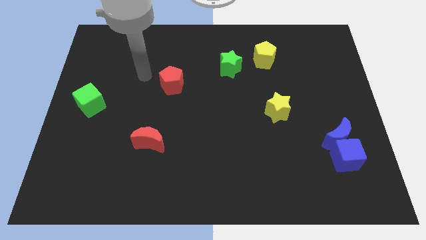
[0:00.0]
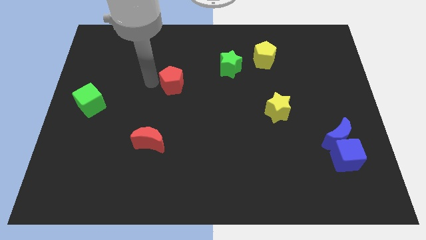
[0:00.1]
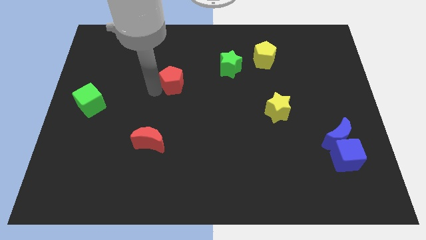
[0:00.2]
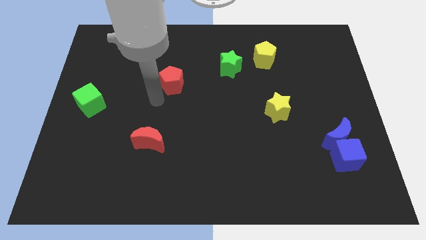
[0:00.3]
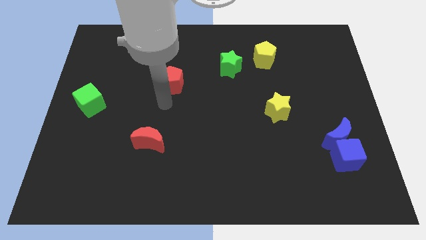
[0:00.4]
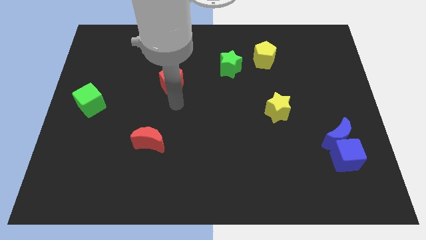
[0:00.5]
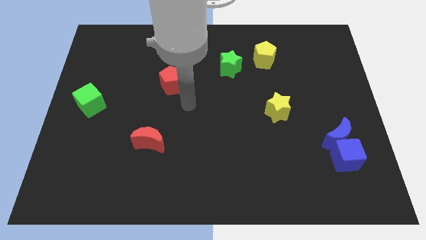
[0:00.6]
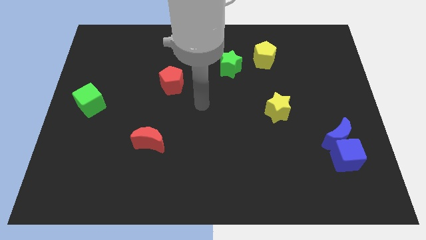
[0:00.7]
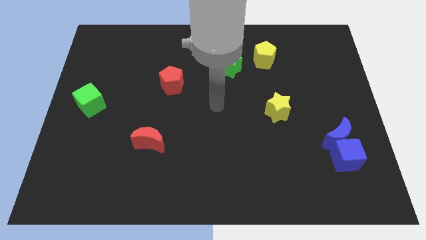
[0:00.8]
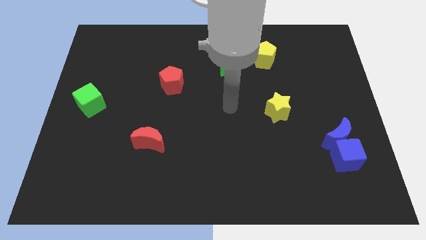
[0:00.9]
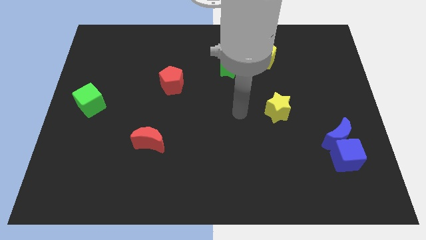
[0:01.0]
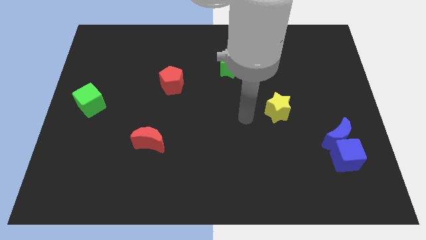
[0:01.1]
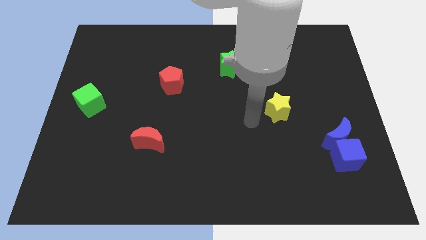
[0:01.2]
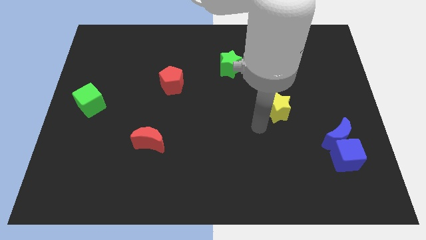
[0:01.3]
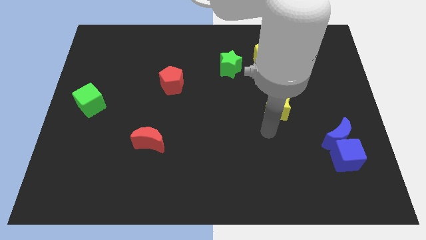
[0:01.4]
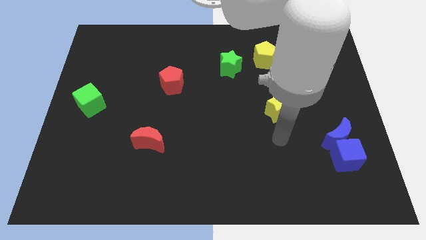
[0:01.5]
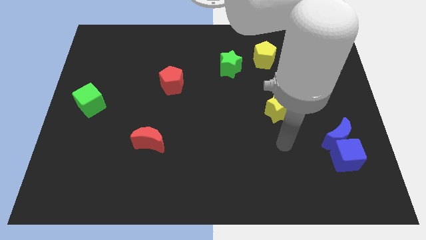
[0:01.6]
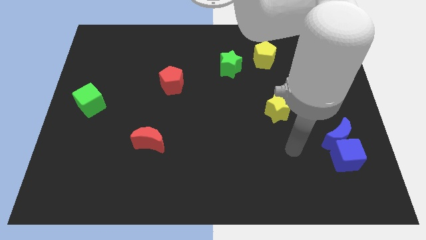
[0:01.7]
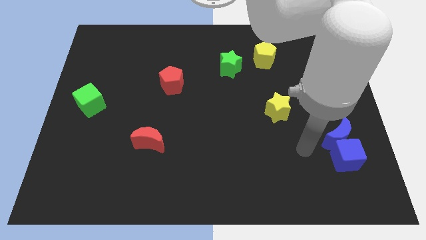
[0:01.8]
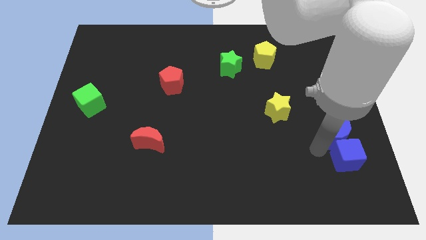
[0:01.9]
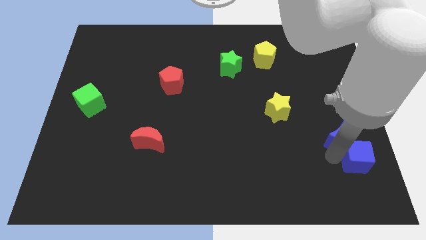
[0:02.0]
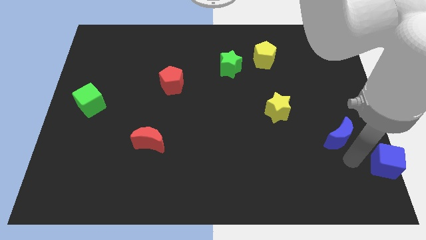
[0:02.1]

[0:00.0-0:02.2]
separate the blue moon from the blue cube

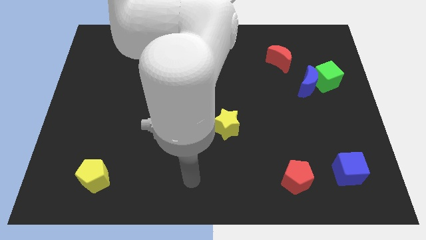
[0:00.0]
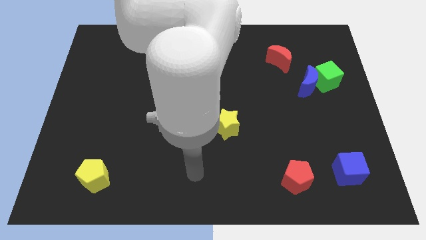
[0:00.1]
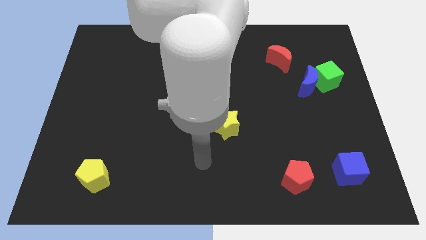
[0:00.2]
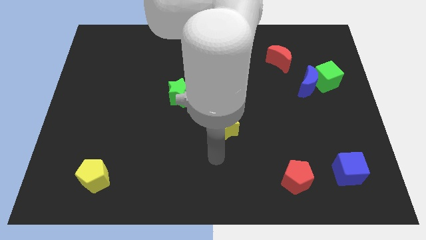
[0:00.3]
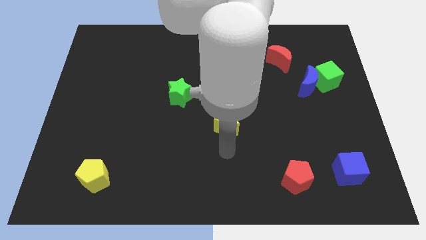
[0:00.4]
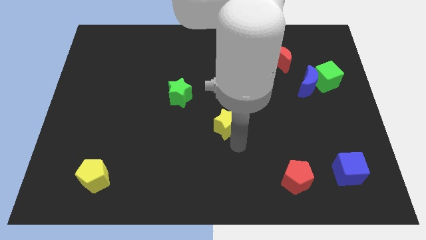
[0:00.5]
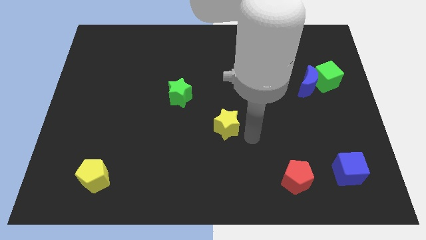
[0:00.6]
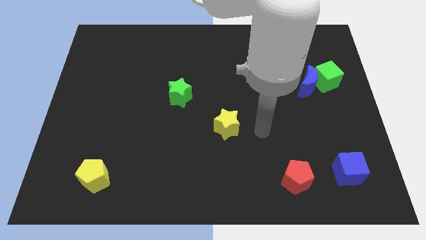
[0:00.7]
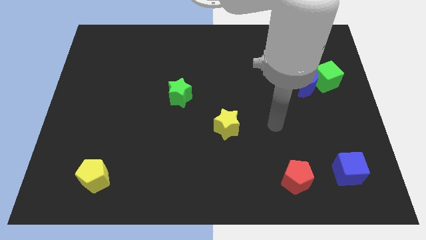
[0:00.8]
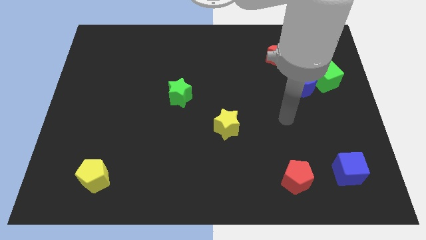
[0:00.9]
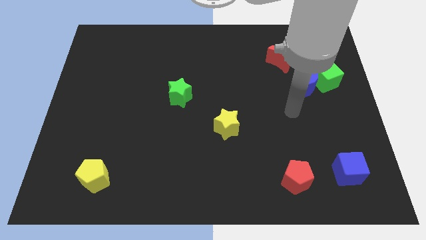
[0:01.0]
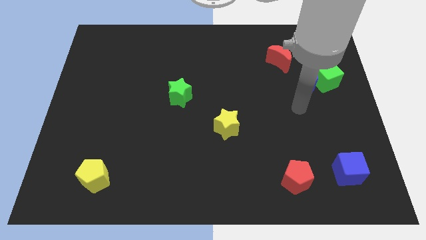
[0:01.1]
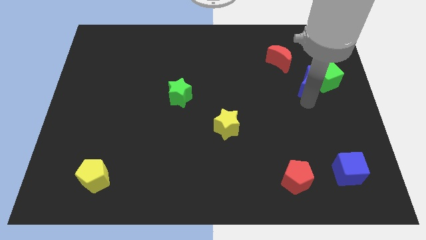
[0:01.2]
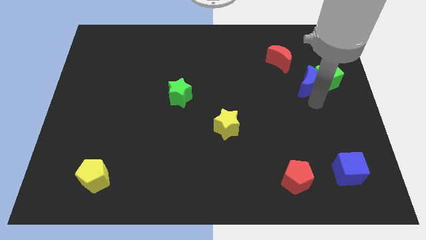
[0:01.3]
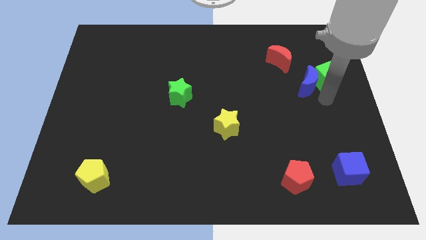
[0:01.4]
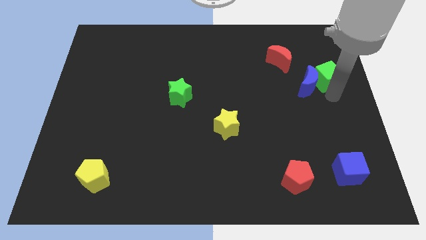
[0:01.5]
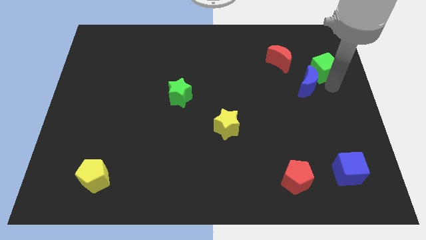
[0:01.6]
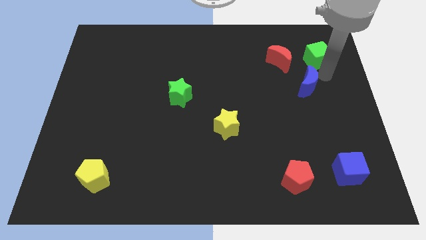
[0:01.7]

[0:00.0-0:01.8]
pull the blue moon apart from the green cube

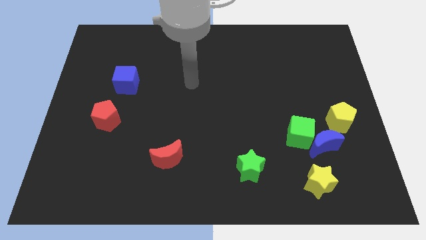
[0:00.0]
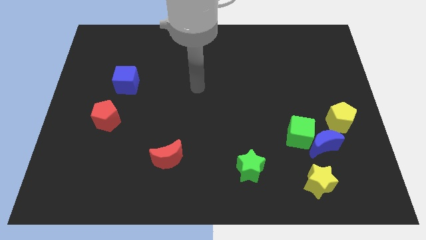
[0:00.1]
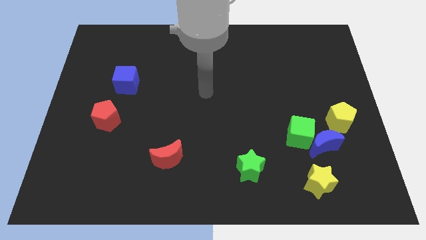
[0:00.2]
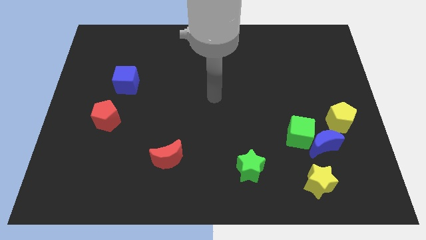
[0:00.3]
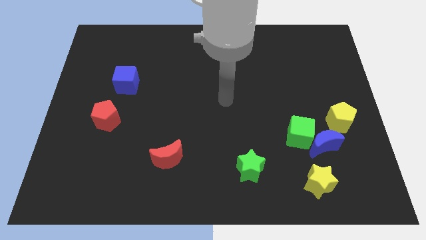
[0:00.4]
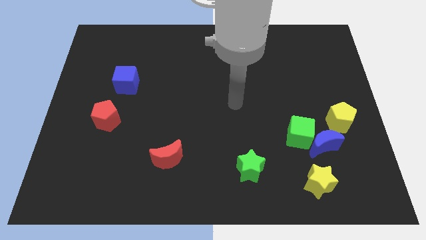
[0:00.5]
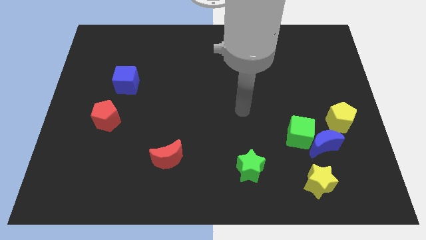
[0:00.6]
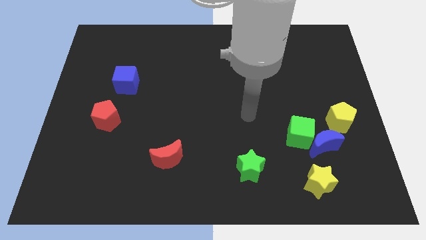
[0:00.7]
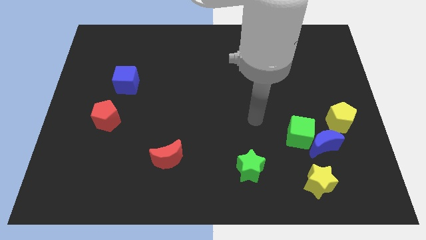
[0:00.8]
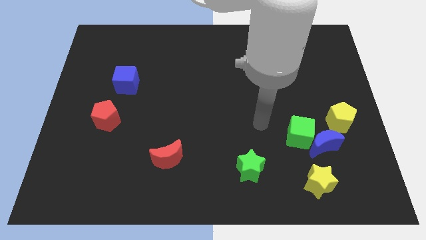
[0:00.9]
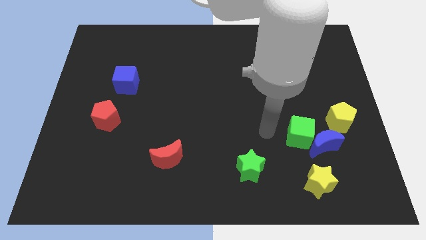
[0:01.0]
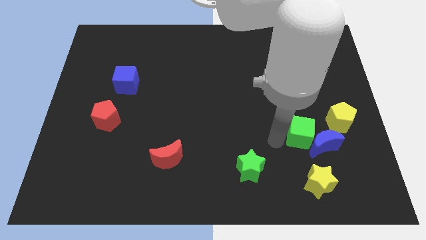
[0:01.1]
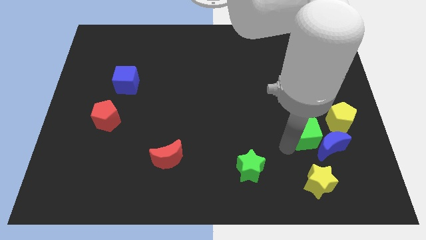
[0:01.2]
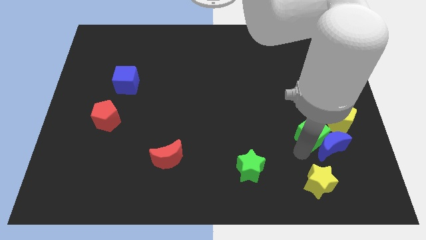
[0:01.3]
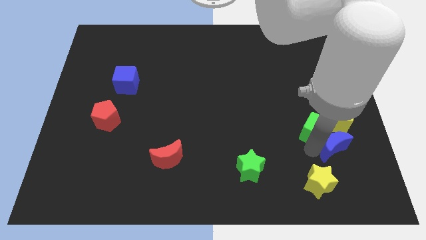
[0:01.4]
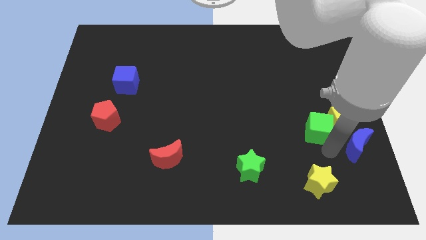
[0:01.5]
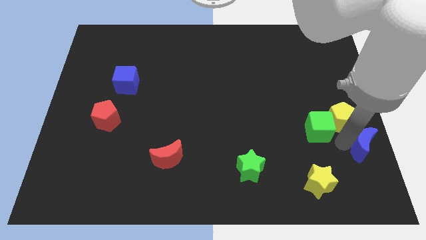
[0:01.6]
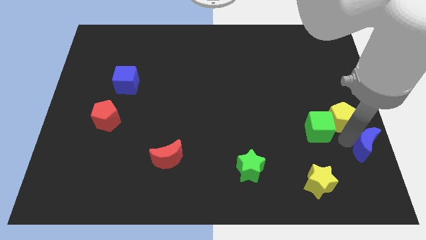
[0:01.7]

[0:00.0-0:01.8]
pull the green cube apart from the blue moon

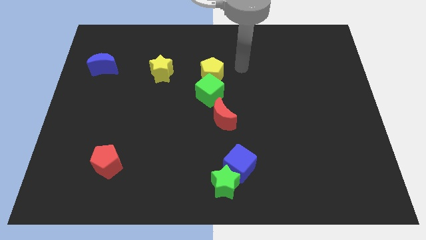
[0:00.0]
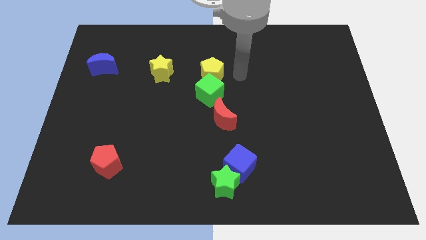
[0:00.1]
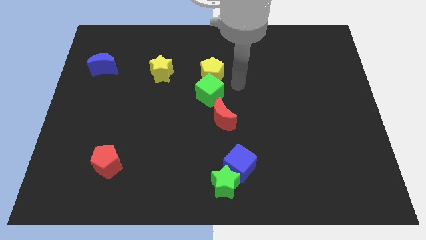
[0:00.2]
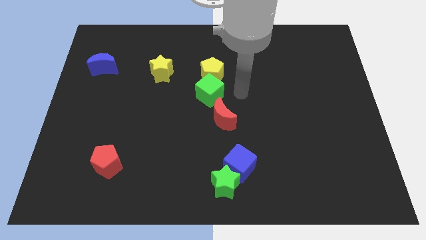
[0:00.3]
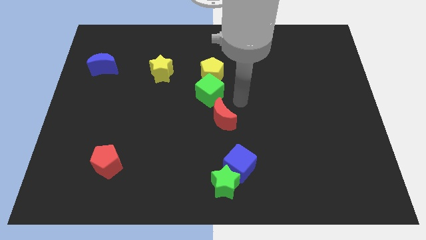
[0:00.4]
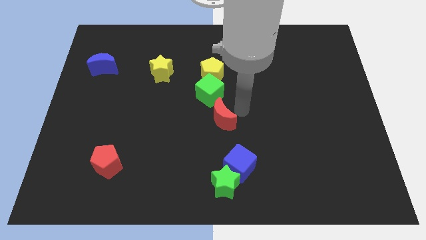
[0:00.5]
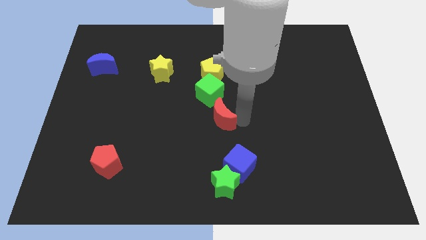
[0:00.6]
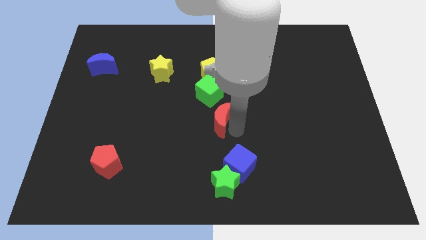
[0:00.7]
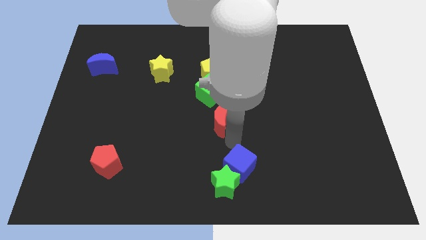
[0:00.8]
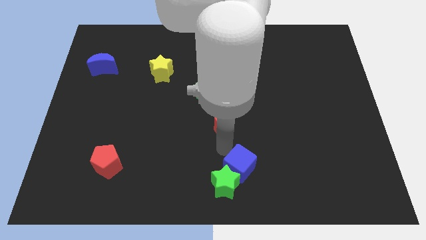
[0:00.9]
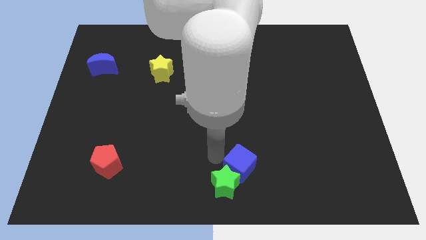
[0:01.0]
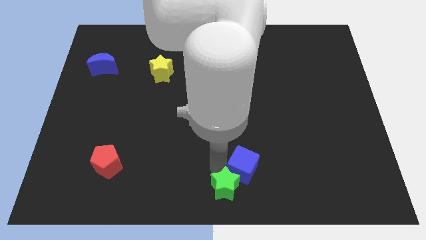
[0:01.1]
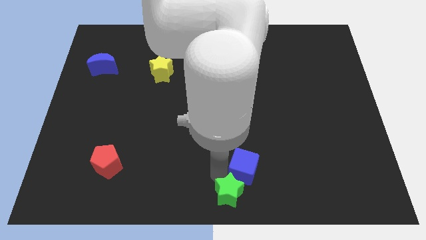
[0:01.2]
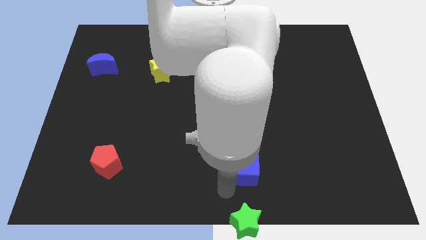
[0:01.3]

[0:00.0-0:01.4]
pull the blue cube apart from the green star

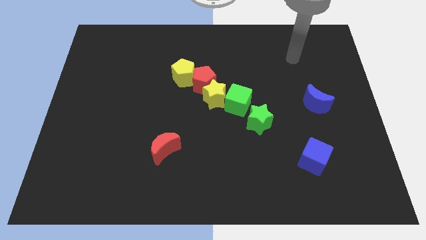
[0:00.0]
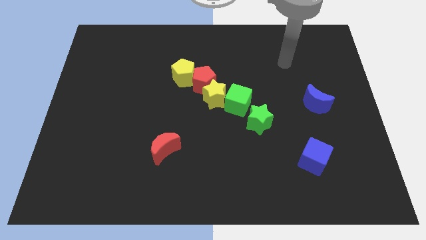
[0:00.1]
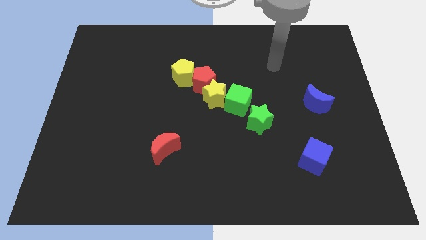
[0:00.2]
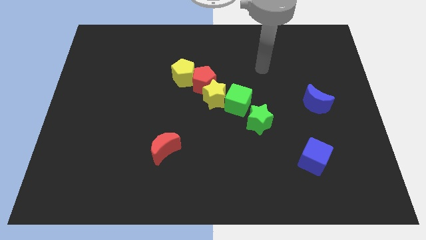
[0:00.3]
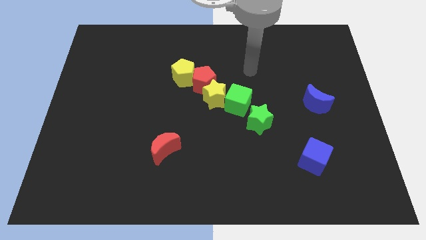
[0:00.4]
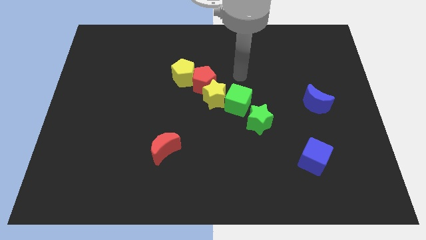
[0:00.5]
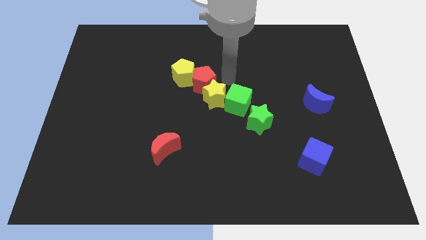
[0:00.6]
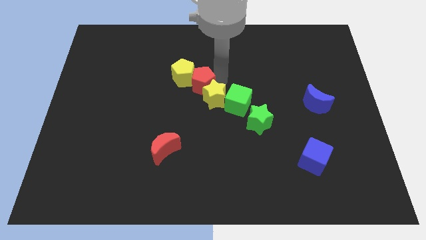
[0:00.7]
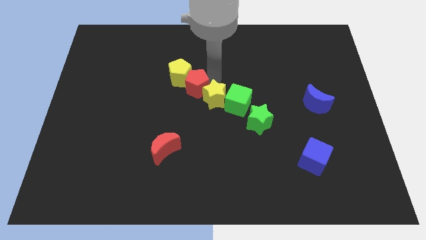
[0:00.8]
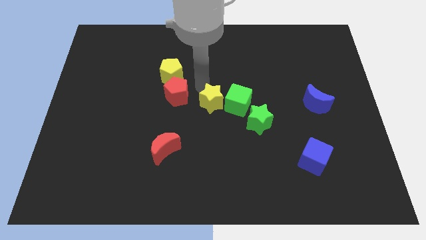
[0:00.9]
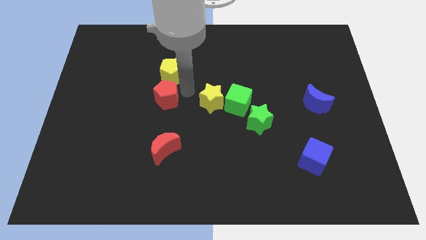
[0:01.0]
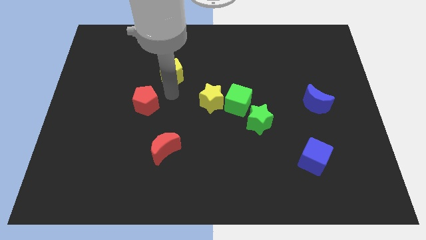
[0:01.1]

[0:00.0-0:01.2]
pull the yellow pentagon apart from the red pentagon

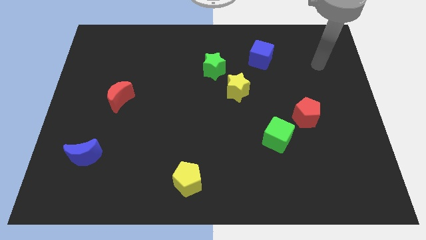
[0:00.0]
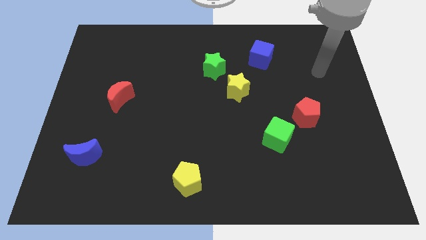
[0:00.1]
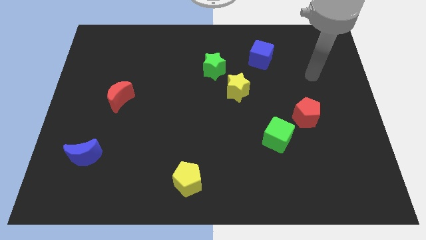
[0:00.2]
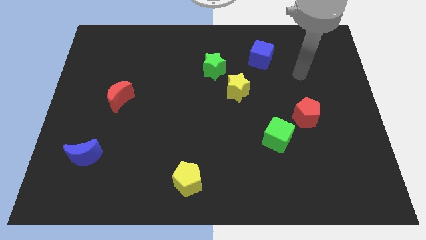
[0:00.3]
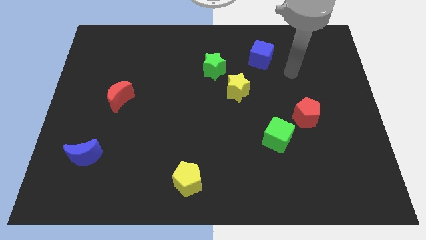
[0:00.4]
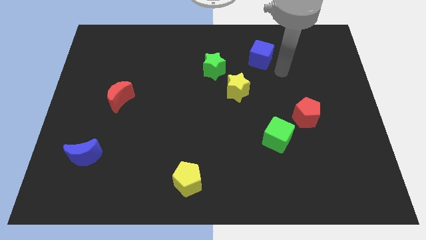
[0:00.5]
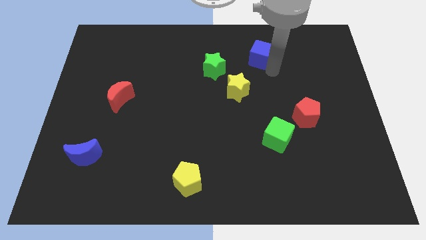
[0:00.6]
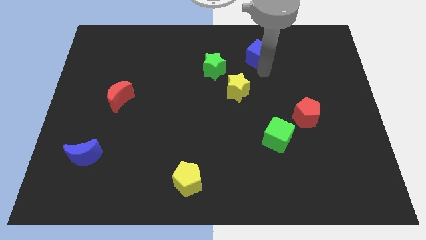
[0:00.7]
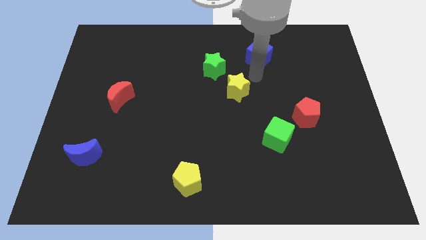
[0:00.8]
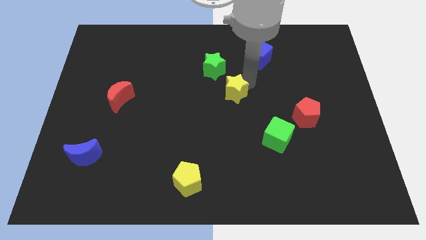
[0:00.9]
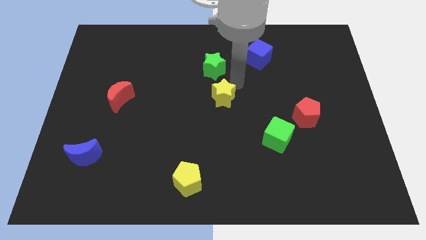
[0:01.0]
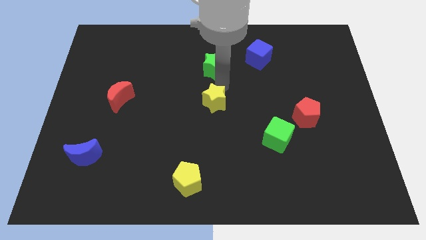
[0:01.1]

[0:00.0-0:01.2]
pull the green star apart from the yellow star
